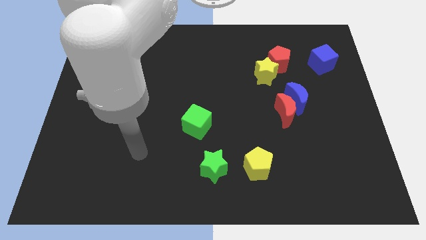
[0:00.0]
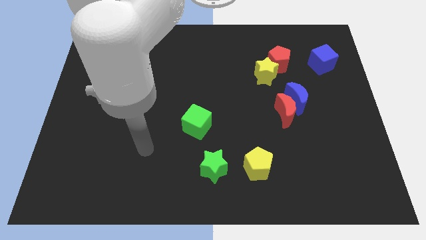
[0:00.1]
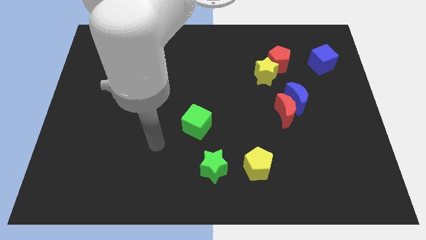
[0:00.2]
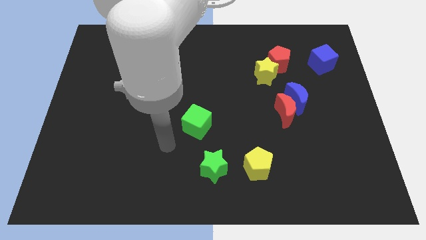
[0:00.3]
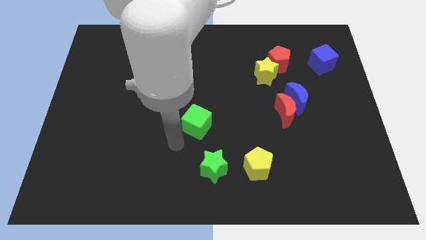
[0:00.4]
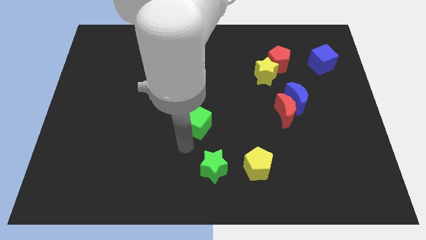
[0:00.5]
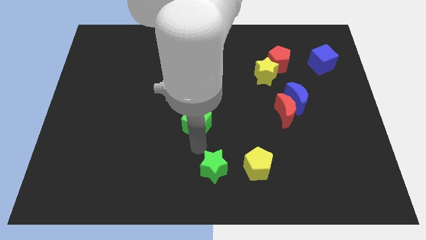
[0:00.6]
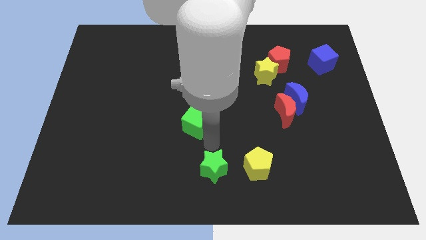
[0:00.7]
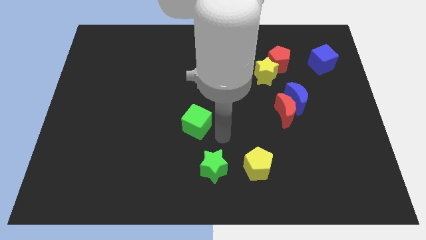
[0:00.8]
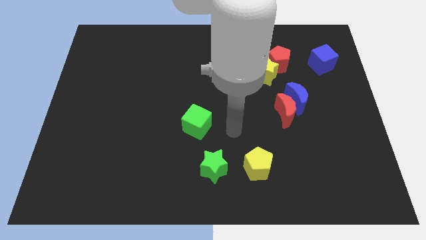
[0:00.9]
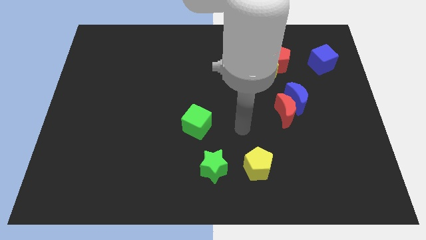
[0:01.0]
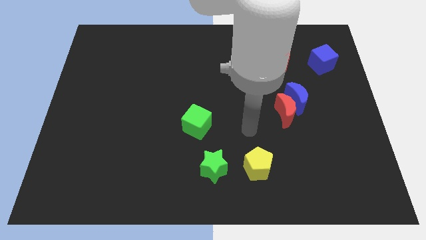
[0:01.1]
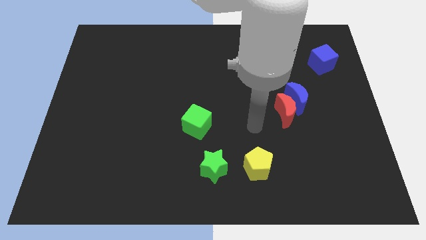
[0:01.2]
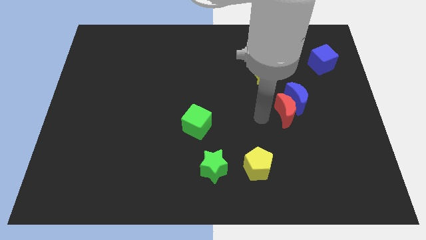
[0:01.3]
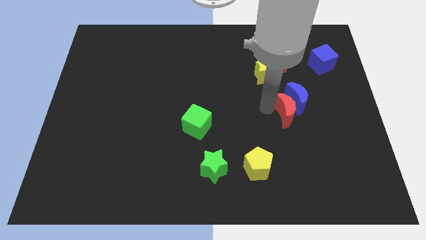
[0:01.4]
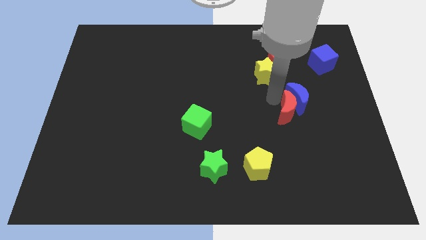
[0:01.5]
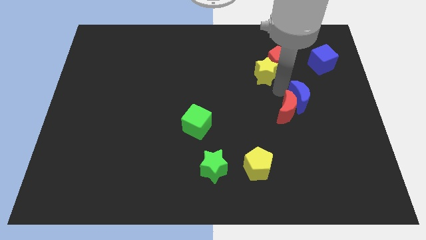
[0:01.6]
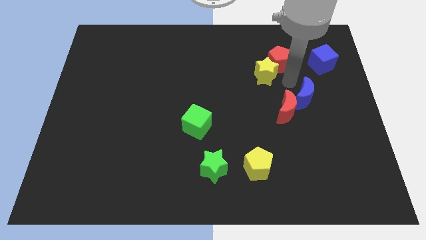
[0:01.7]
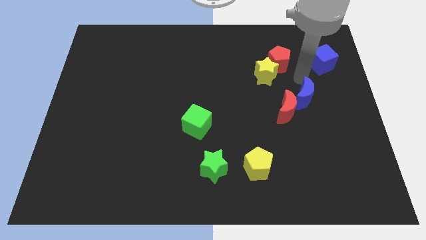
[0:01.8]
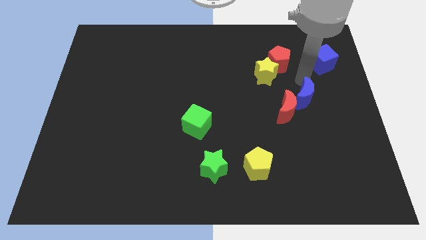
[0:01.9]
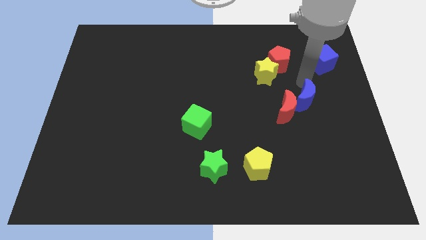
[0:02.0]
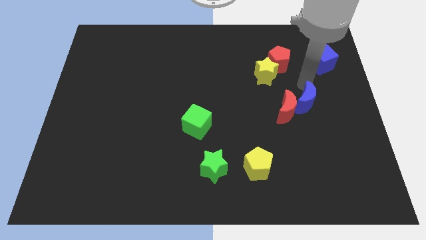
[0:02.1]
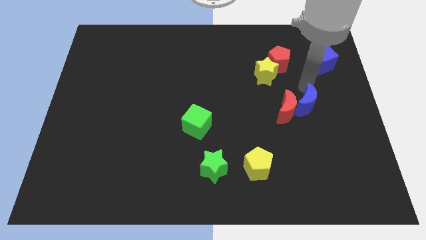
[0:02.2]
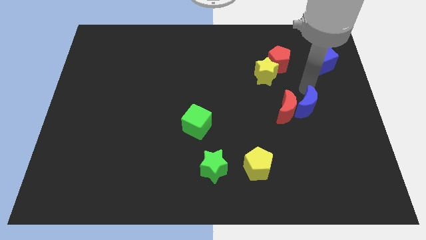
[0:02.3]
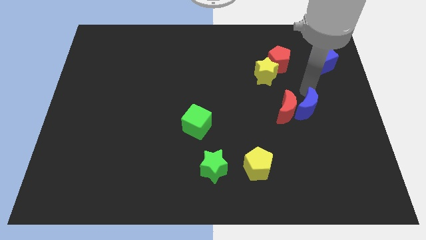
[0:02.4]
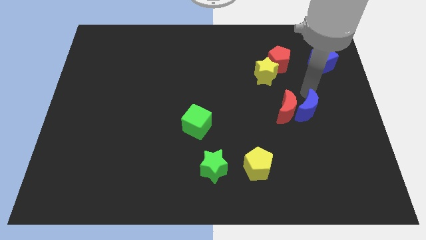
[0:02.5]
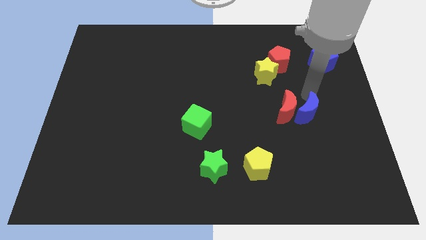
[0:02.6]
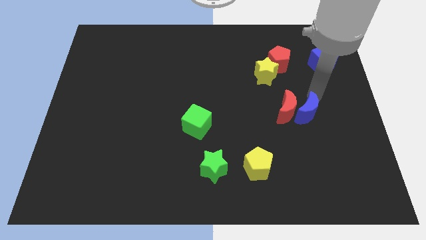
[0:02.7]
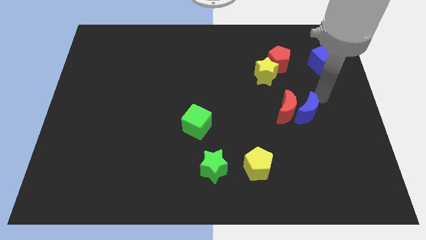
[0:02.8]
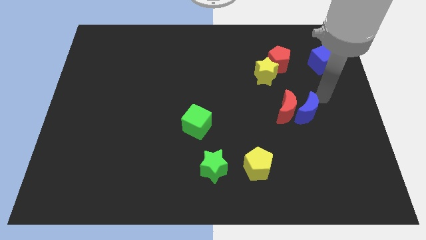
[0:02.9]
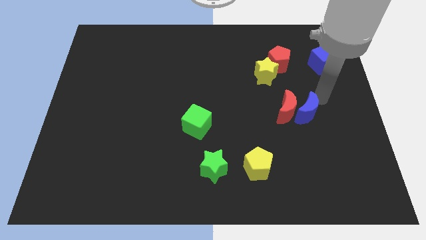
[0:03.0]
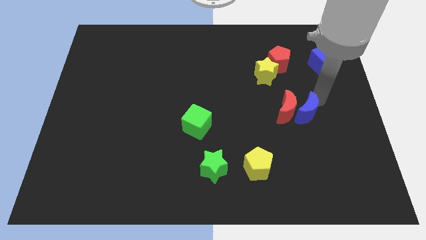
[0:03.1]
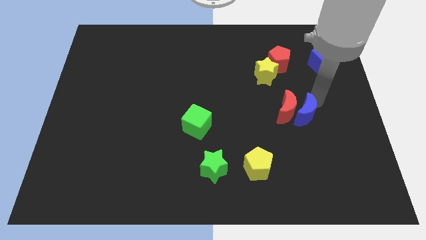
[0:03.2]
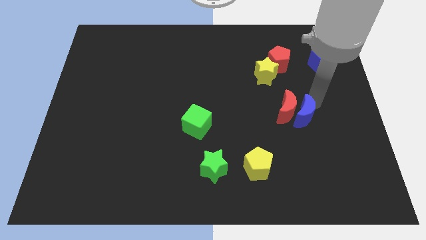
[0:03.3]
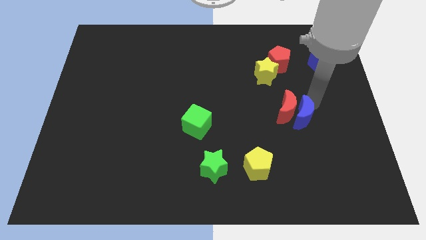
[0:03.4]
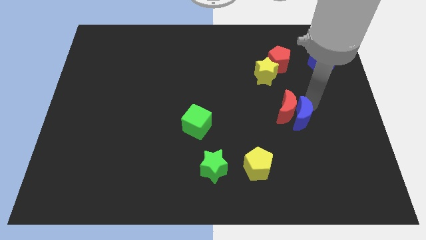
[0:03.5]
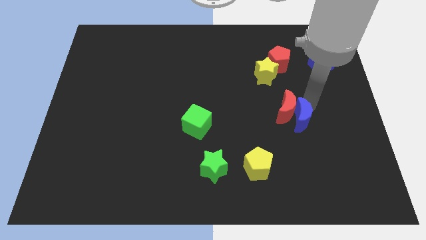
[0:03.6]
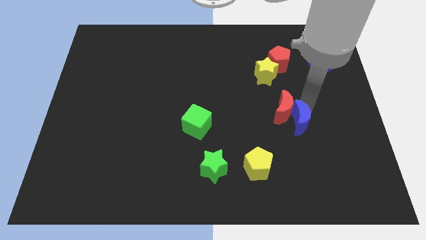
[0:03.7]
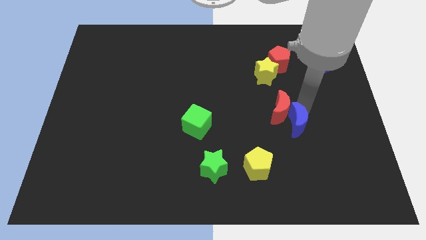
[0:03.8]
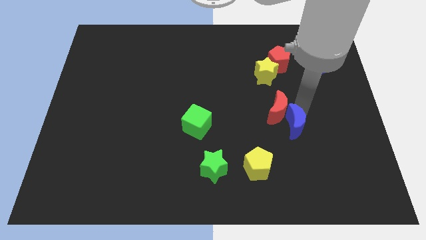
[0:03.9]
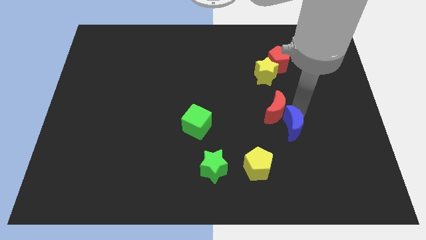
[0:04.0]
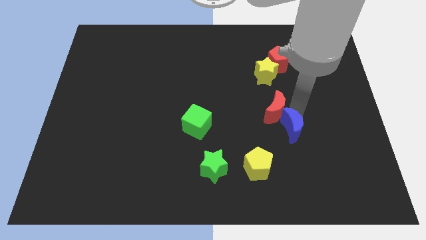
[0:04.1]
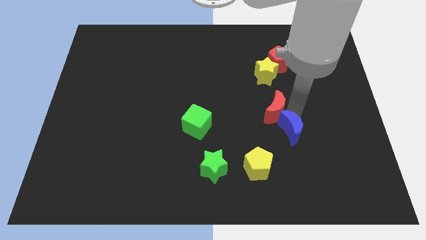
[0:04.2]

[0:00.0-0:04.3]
slide the blue moon a bit diagonally down and to the left

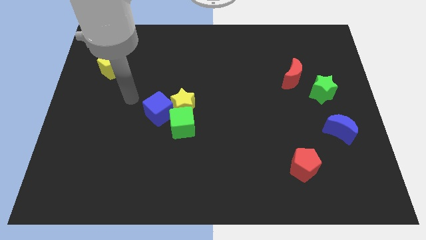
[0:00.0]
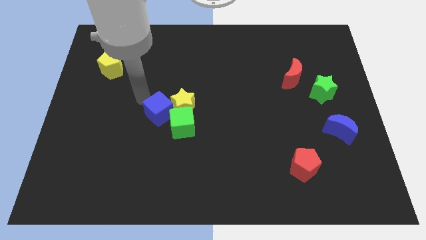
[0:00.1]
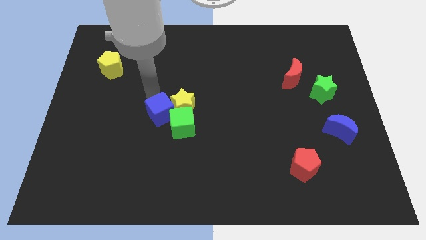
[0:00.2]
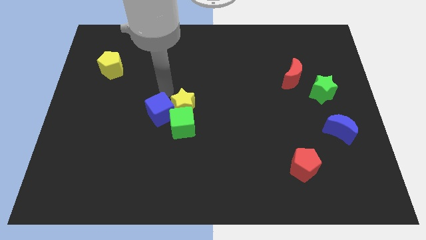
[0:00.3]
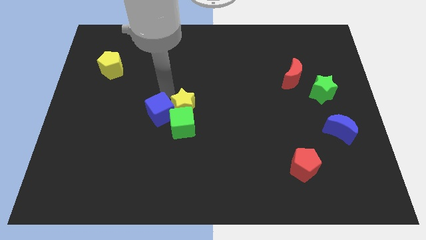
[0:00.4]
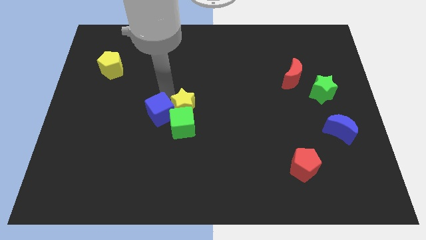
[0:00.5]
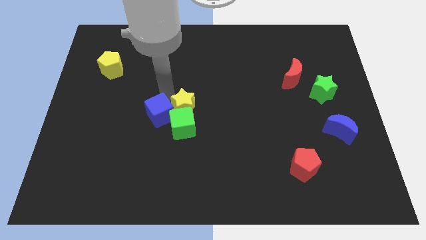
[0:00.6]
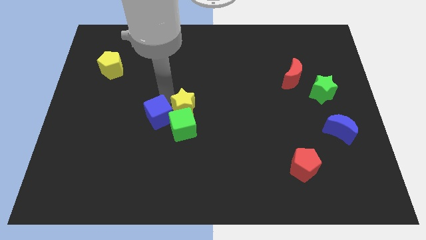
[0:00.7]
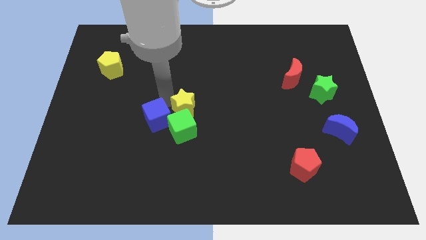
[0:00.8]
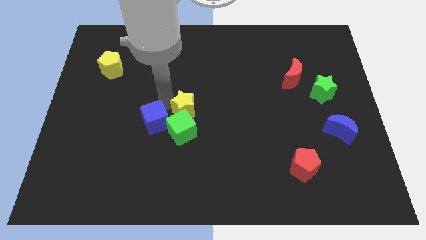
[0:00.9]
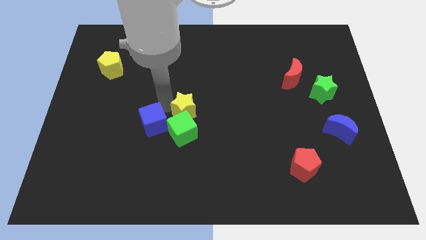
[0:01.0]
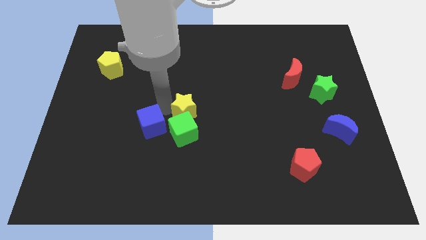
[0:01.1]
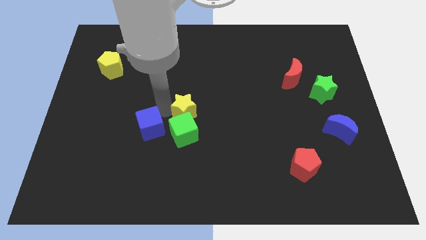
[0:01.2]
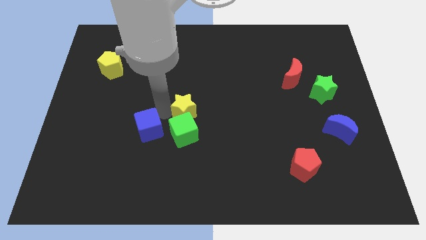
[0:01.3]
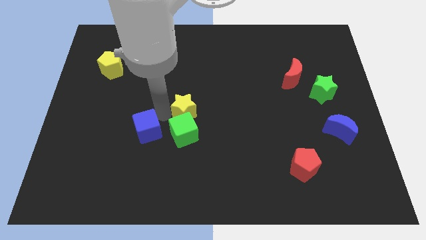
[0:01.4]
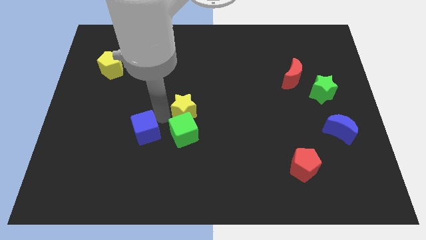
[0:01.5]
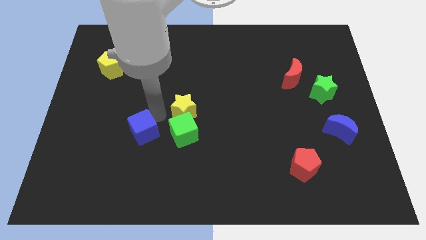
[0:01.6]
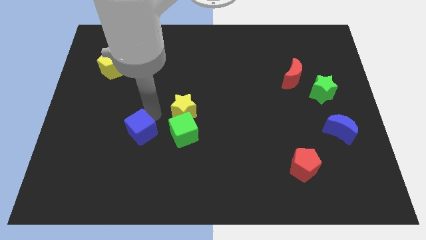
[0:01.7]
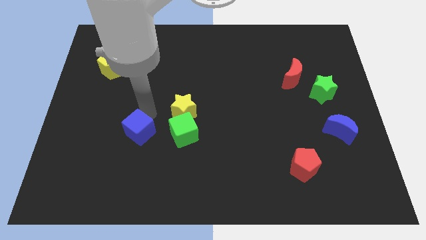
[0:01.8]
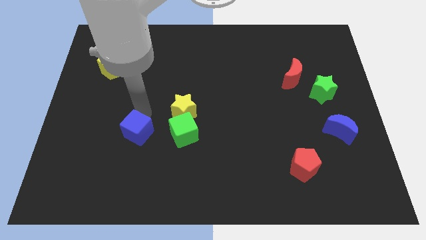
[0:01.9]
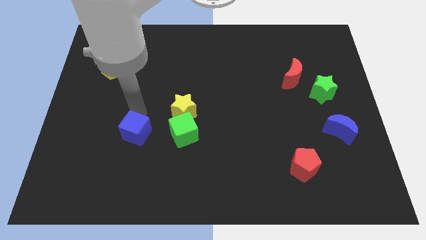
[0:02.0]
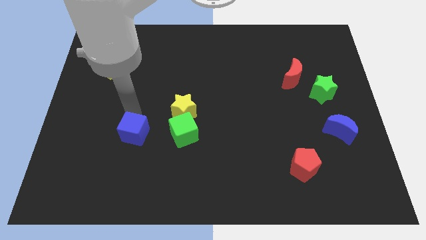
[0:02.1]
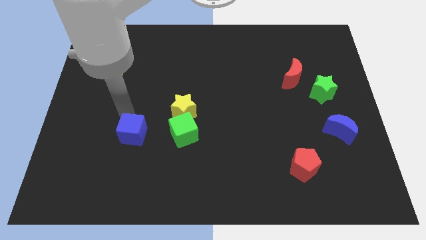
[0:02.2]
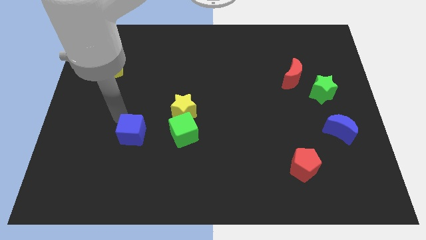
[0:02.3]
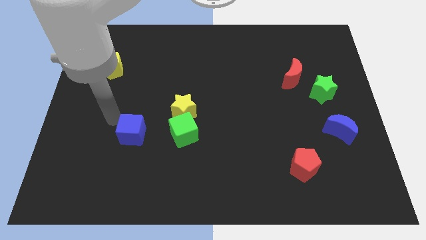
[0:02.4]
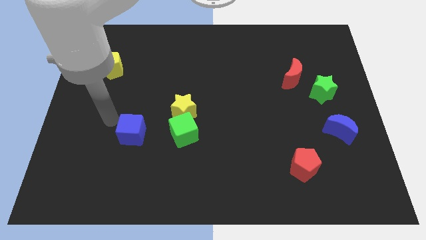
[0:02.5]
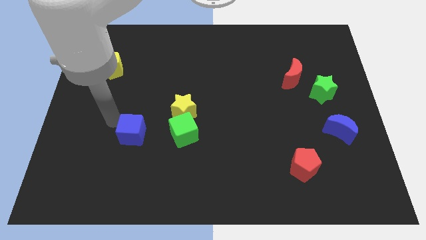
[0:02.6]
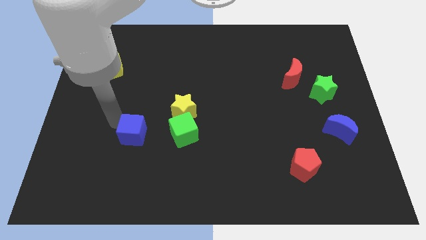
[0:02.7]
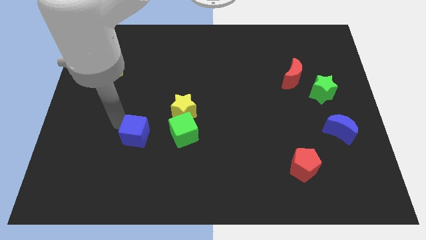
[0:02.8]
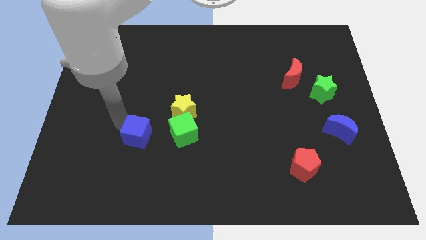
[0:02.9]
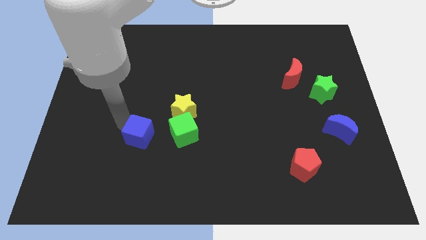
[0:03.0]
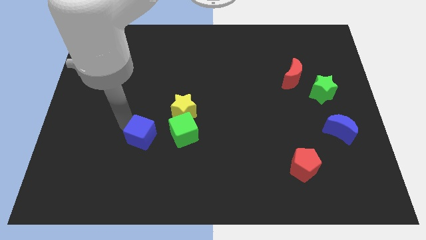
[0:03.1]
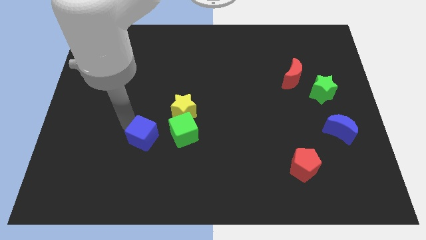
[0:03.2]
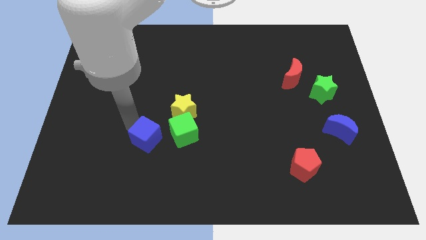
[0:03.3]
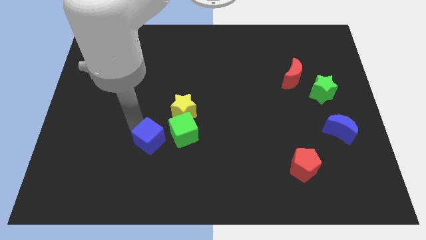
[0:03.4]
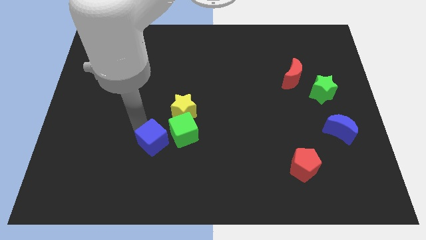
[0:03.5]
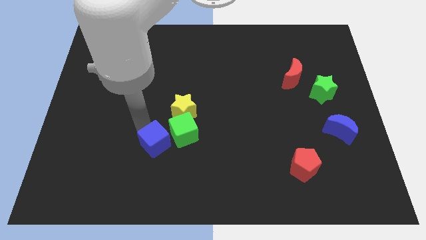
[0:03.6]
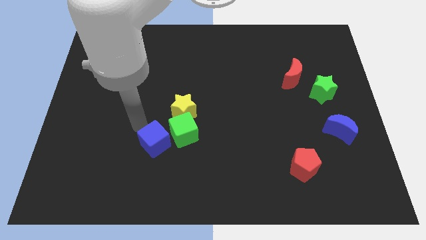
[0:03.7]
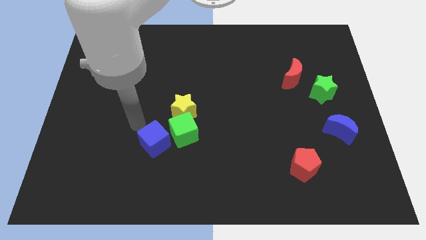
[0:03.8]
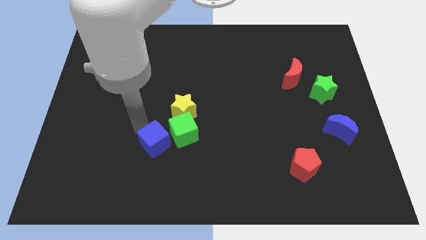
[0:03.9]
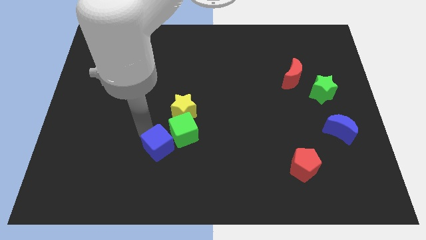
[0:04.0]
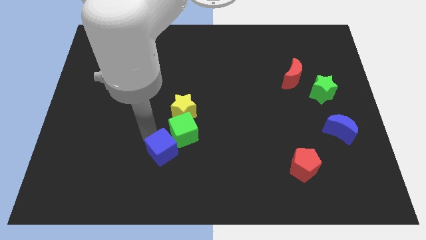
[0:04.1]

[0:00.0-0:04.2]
slightly slide the blue cube downwards and right diagonally
